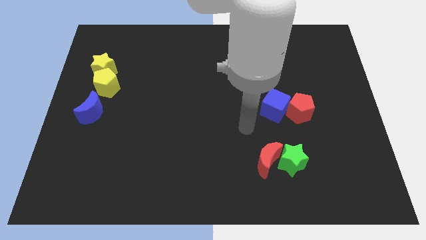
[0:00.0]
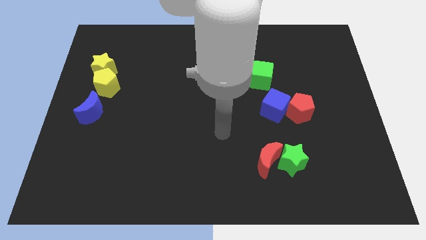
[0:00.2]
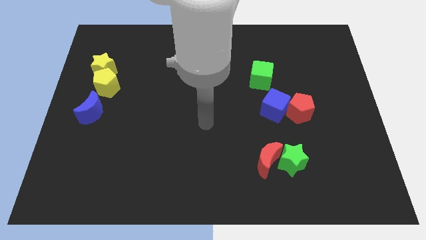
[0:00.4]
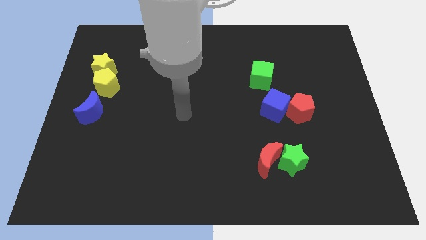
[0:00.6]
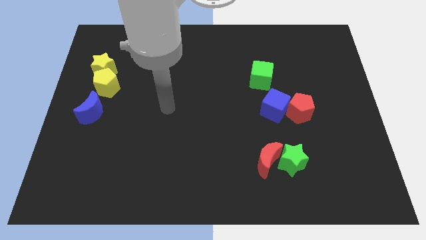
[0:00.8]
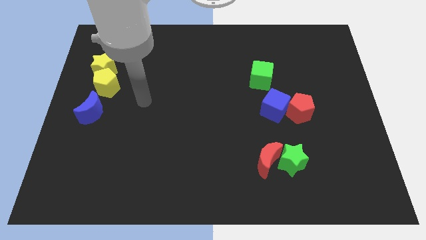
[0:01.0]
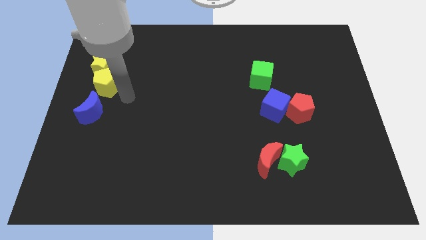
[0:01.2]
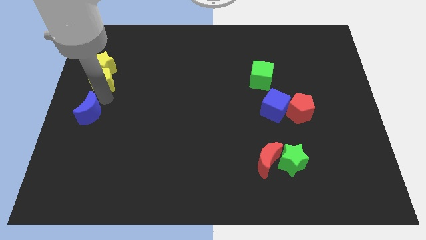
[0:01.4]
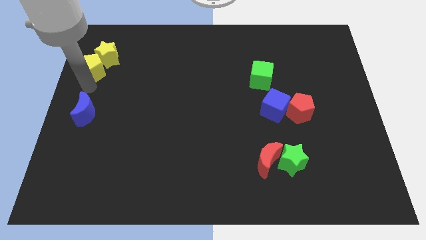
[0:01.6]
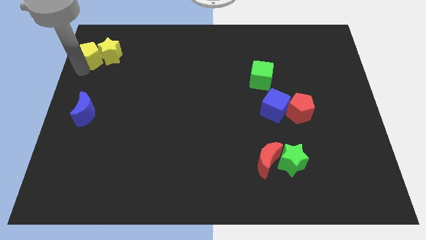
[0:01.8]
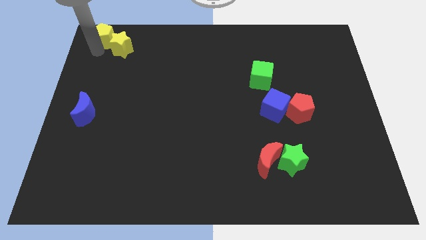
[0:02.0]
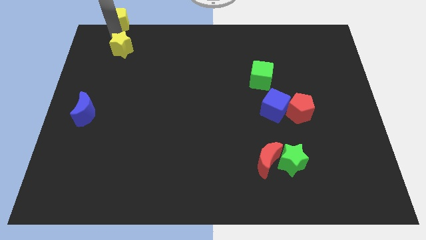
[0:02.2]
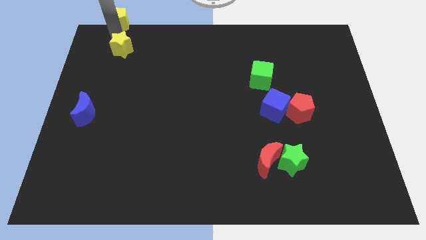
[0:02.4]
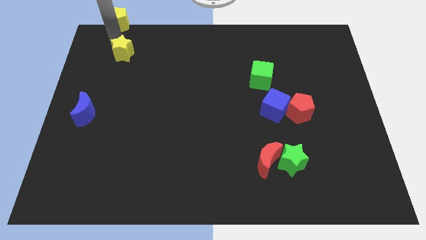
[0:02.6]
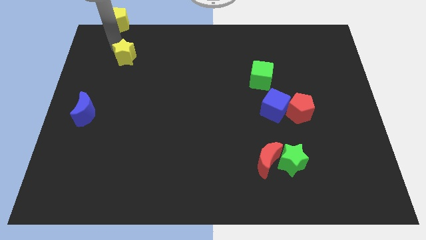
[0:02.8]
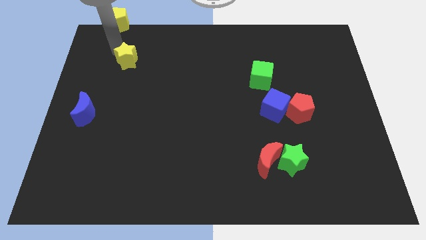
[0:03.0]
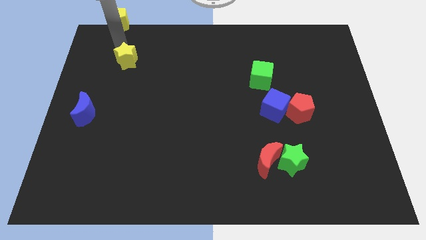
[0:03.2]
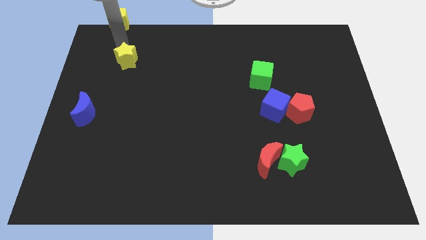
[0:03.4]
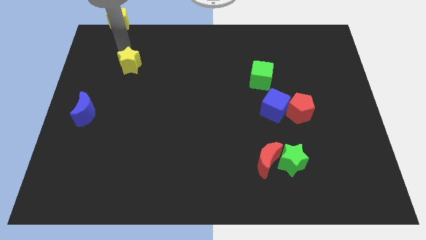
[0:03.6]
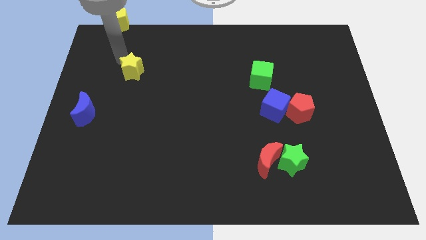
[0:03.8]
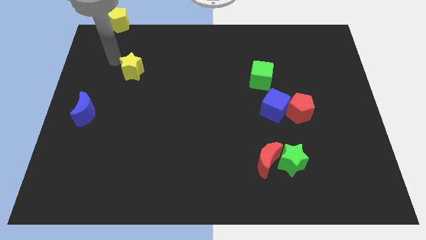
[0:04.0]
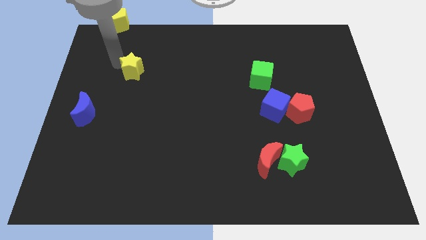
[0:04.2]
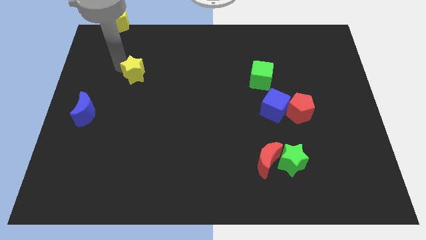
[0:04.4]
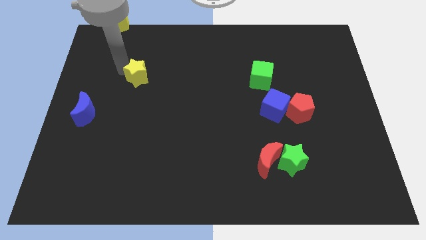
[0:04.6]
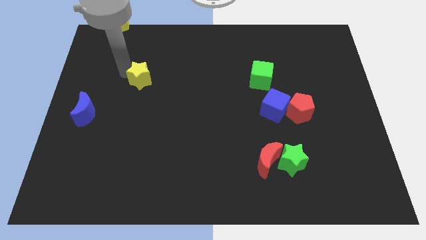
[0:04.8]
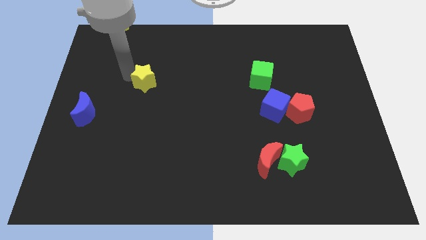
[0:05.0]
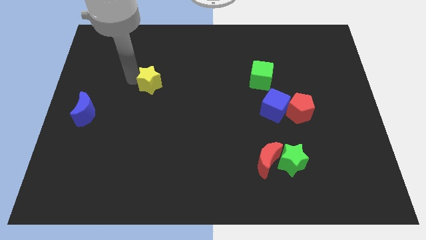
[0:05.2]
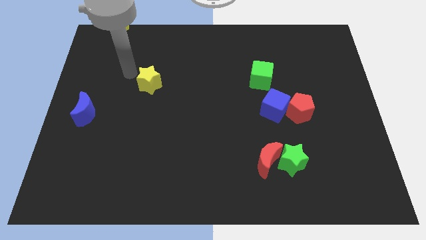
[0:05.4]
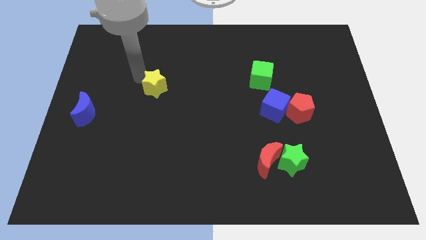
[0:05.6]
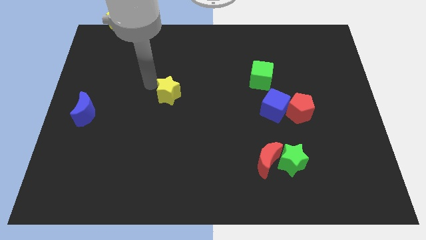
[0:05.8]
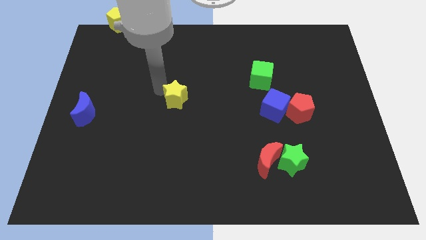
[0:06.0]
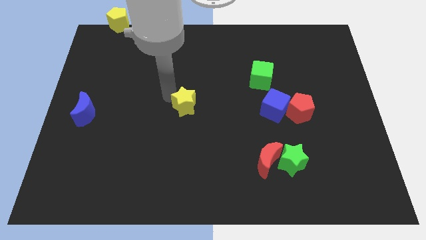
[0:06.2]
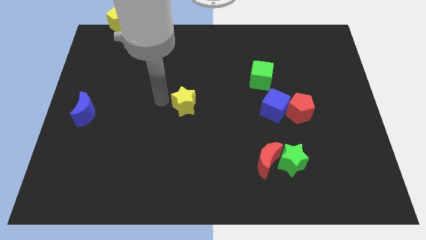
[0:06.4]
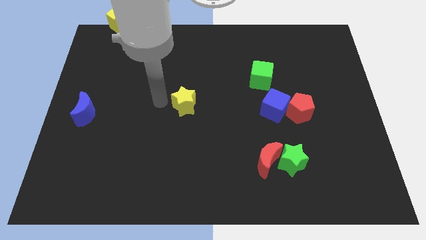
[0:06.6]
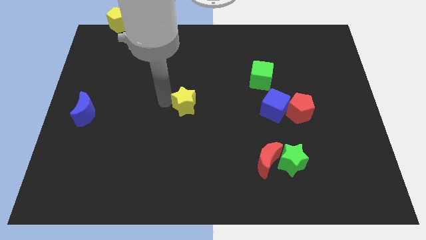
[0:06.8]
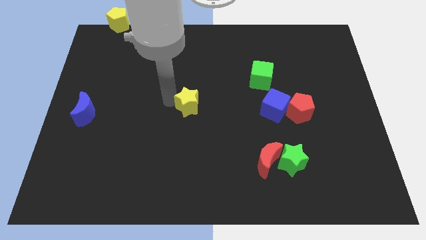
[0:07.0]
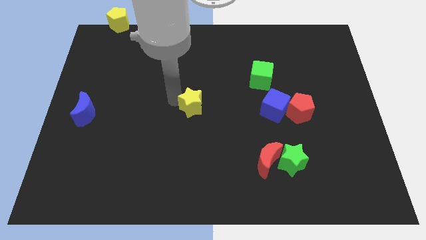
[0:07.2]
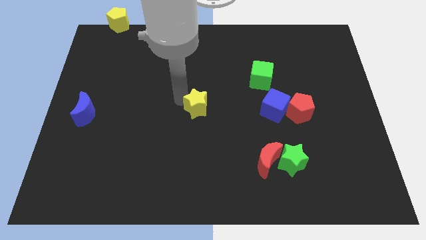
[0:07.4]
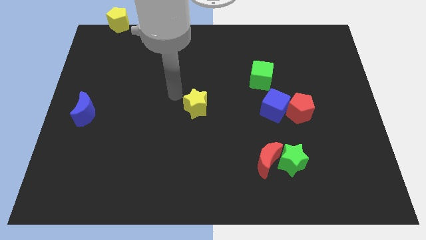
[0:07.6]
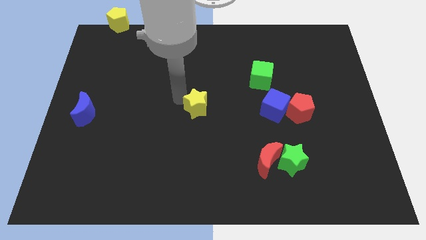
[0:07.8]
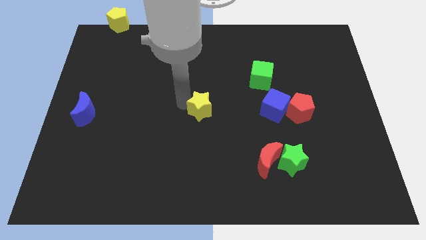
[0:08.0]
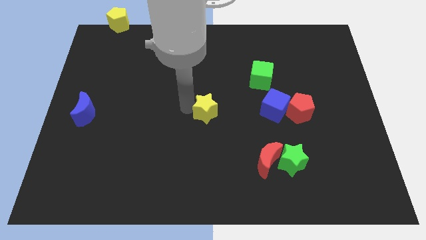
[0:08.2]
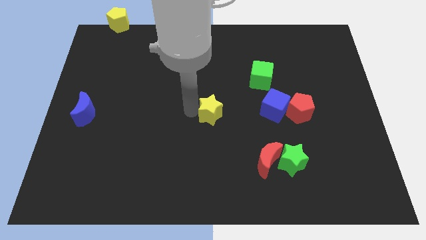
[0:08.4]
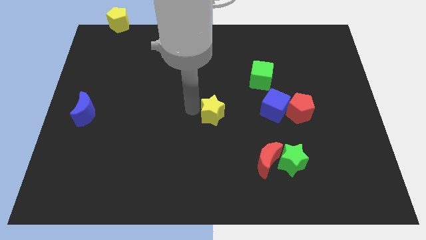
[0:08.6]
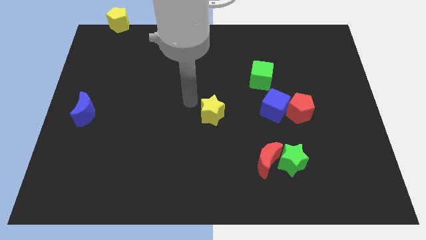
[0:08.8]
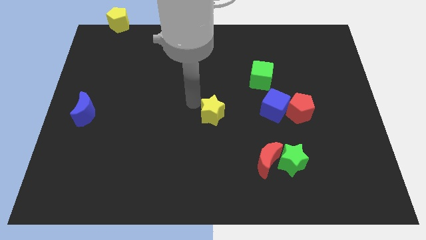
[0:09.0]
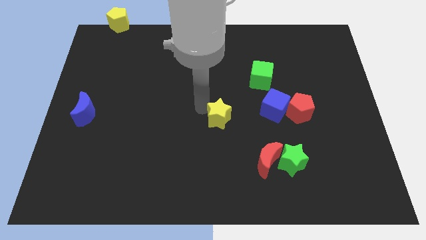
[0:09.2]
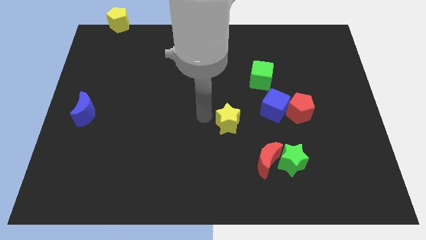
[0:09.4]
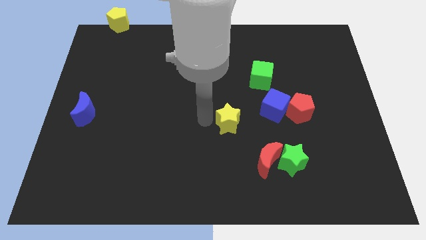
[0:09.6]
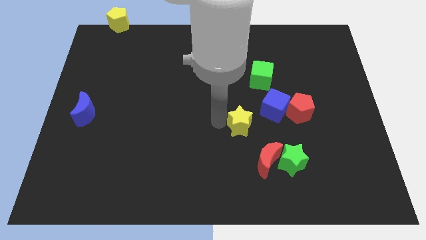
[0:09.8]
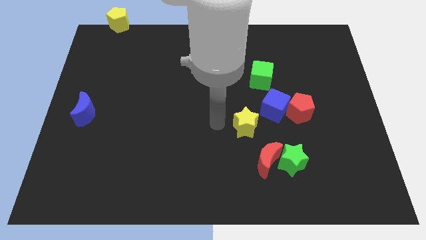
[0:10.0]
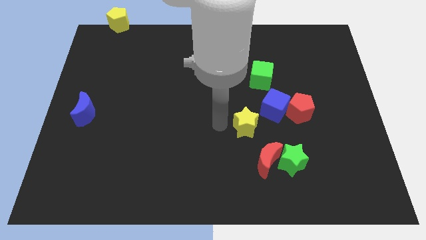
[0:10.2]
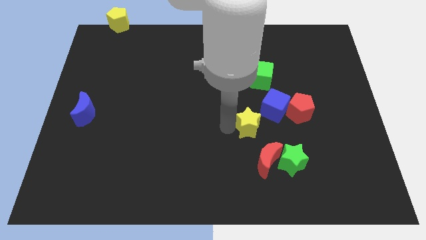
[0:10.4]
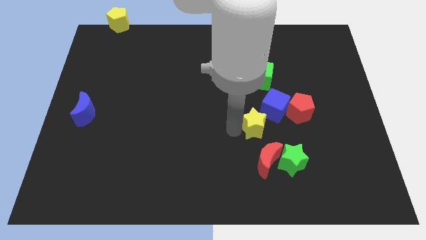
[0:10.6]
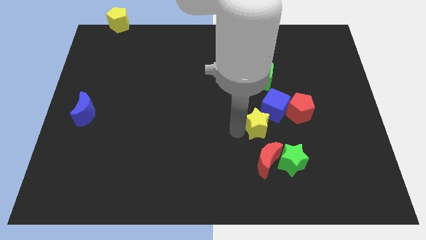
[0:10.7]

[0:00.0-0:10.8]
push the yellow star to the bottom left side of the red pentagon

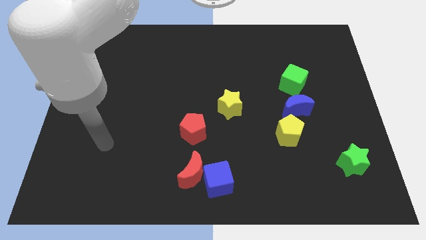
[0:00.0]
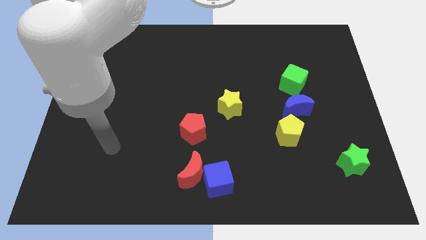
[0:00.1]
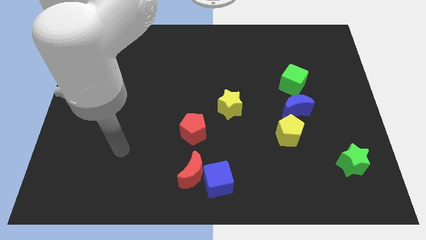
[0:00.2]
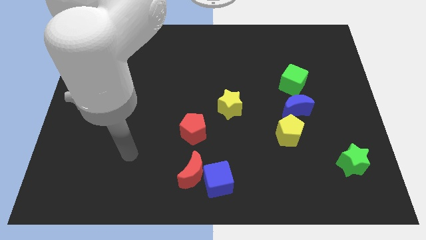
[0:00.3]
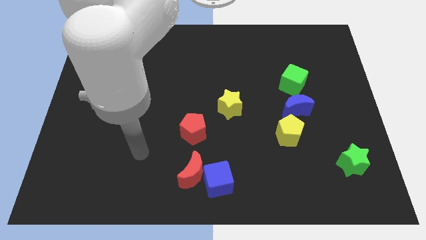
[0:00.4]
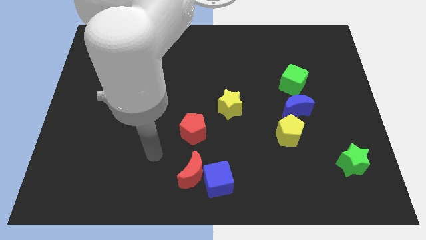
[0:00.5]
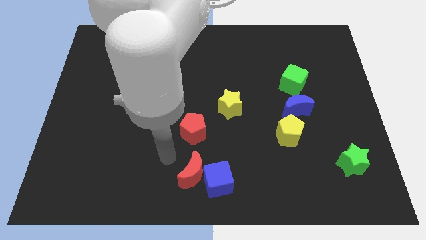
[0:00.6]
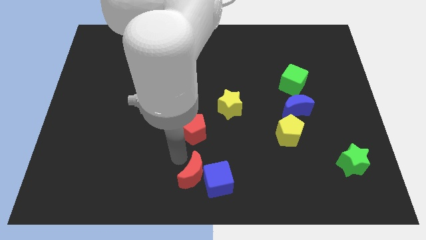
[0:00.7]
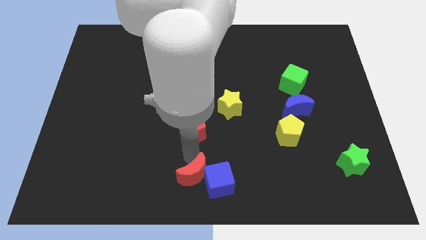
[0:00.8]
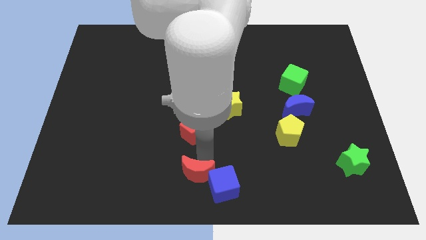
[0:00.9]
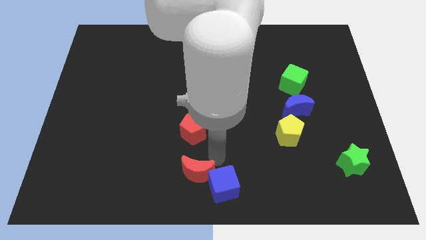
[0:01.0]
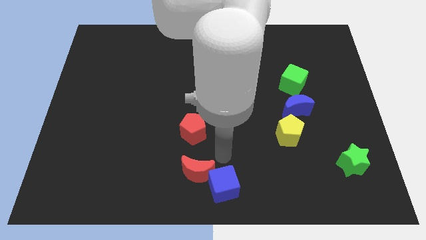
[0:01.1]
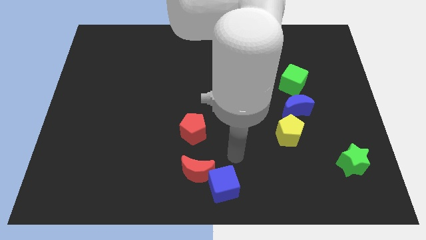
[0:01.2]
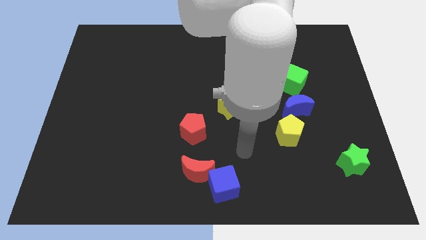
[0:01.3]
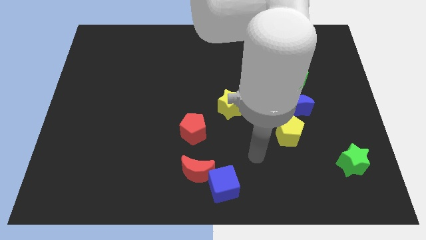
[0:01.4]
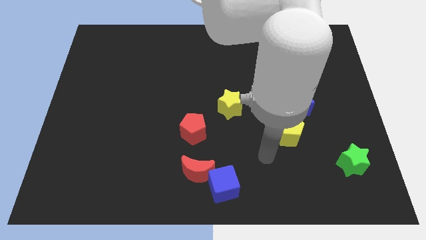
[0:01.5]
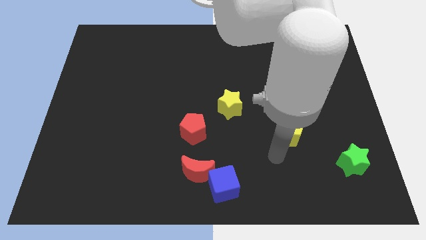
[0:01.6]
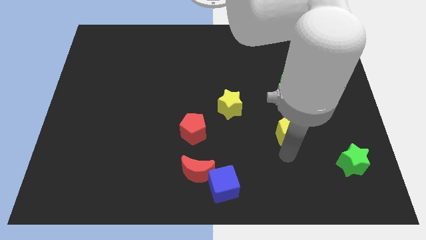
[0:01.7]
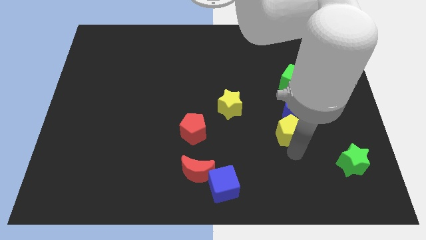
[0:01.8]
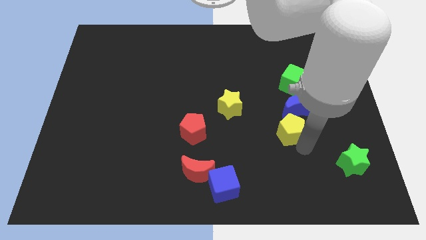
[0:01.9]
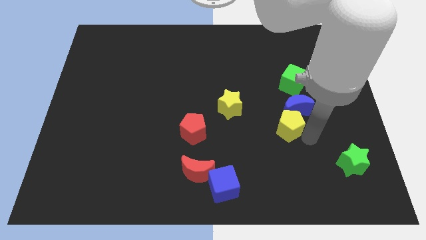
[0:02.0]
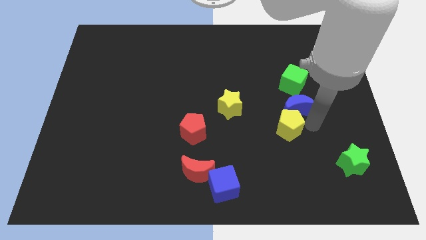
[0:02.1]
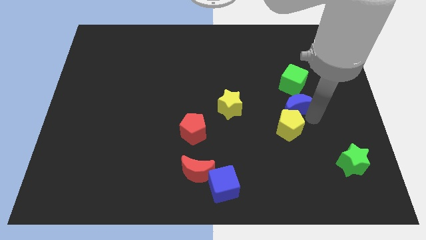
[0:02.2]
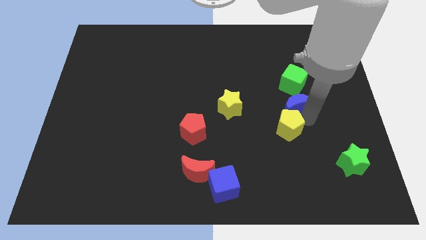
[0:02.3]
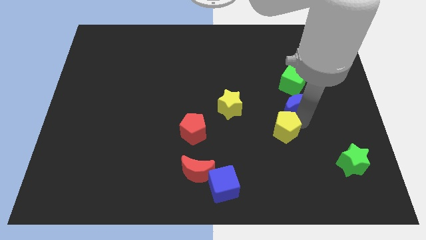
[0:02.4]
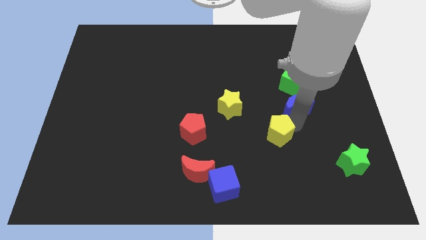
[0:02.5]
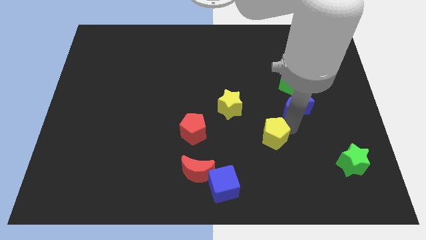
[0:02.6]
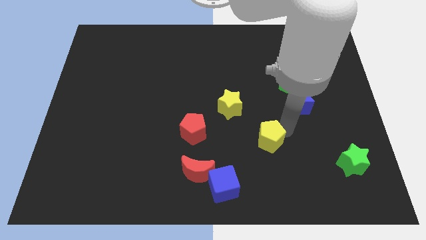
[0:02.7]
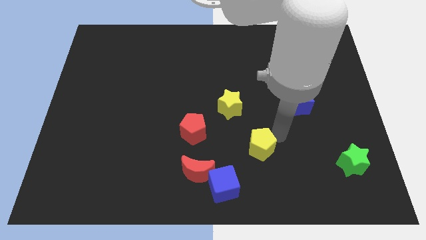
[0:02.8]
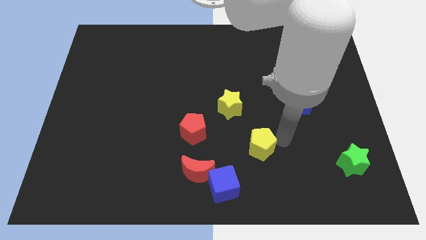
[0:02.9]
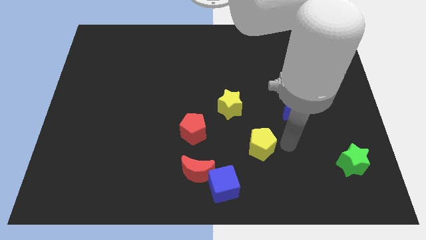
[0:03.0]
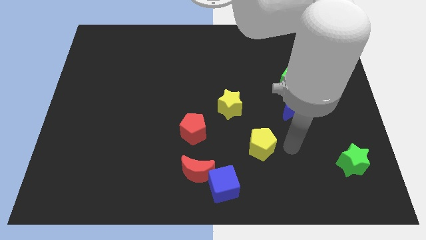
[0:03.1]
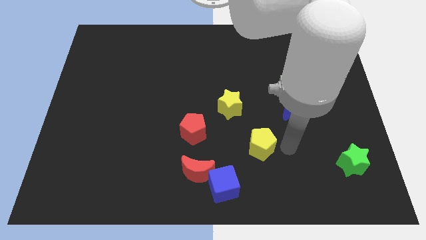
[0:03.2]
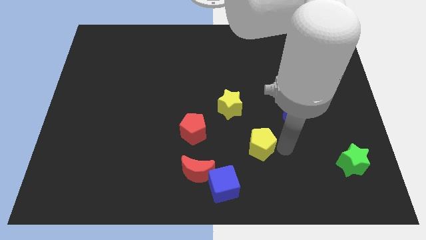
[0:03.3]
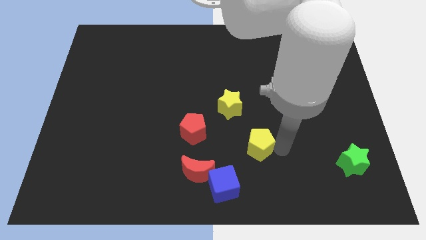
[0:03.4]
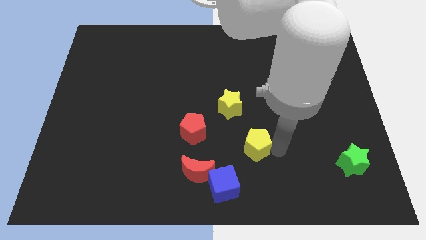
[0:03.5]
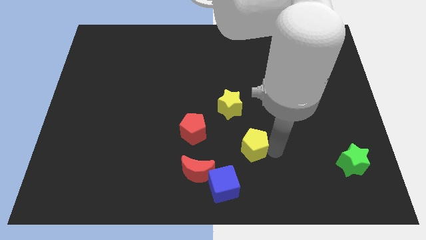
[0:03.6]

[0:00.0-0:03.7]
push the yellow pentagon to the bottom side of the yellow star
